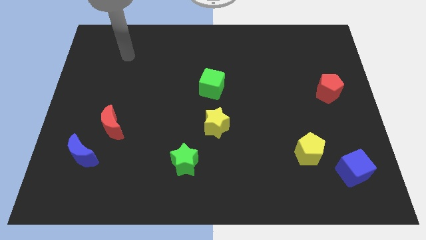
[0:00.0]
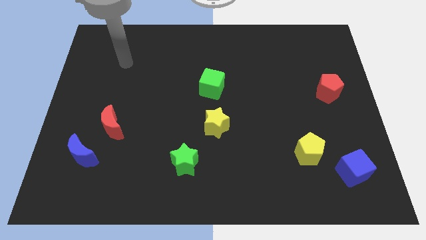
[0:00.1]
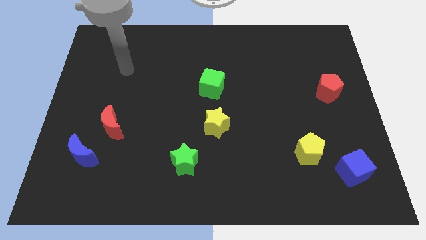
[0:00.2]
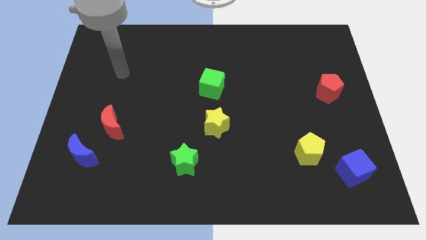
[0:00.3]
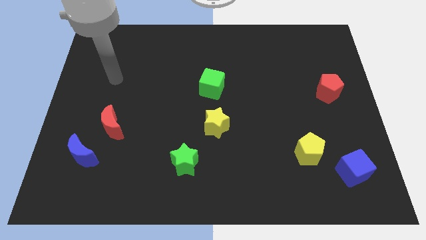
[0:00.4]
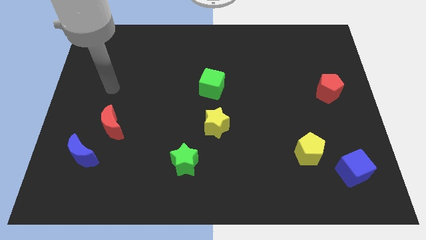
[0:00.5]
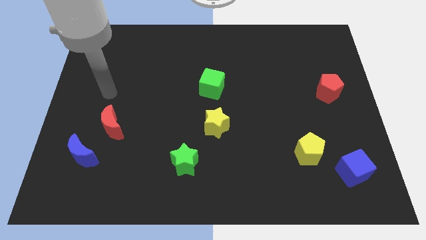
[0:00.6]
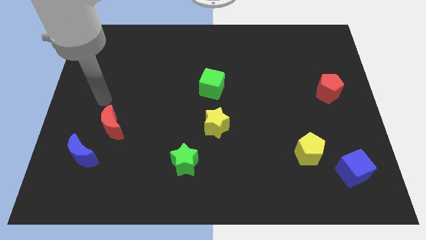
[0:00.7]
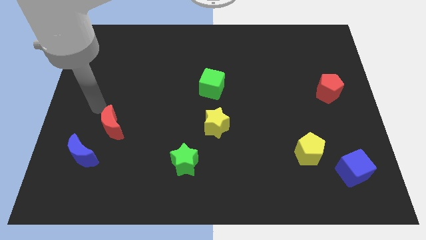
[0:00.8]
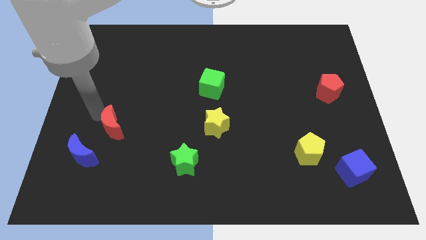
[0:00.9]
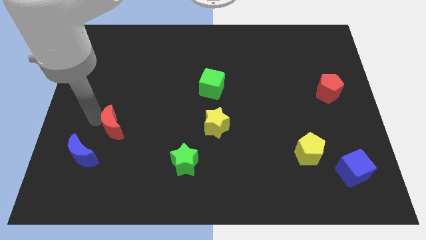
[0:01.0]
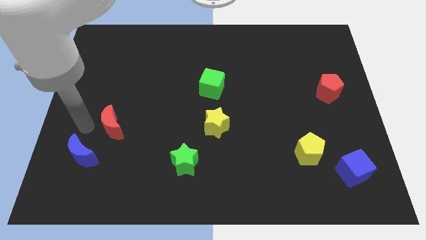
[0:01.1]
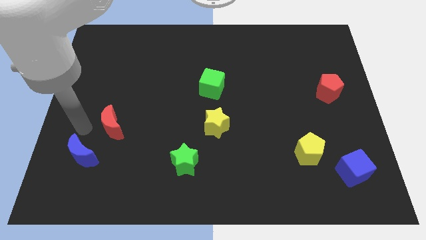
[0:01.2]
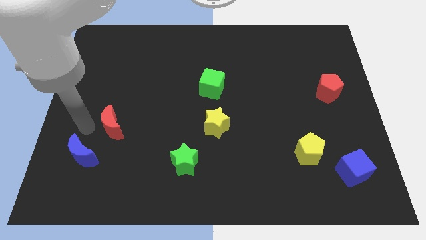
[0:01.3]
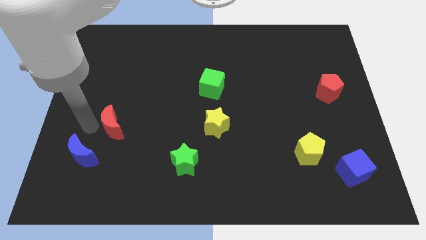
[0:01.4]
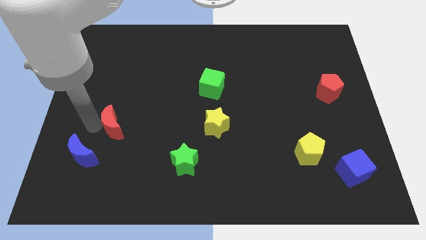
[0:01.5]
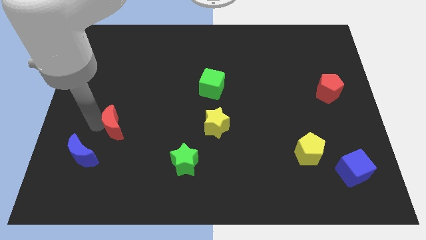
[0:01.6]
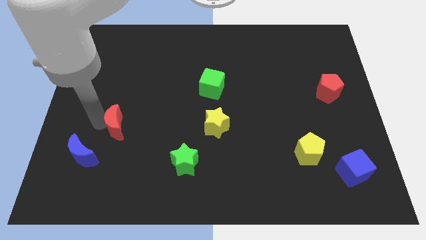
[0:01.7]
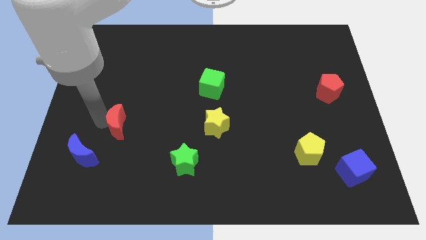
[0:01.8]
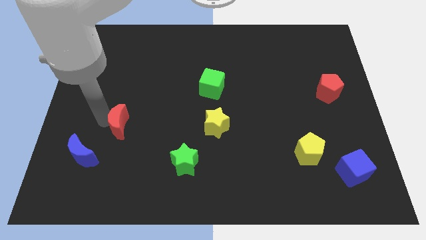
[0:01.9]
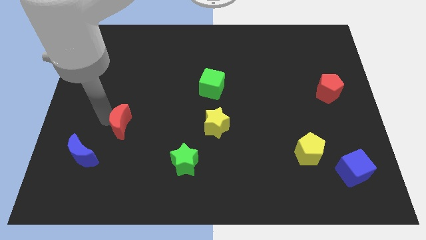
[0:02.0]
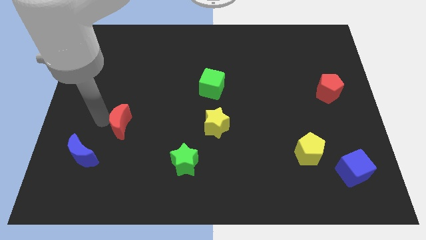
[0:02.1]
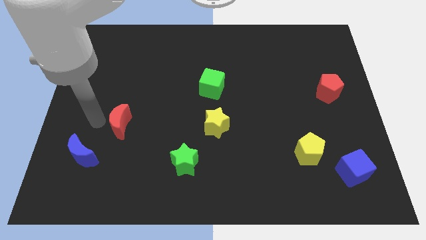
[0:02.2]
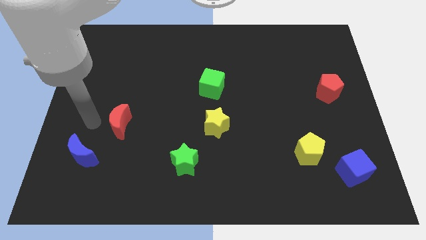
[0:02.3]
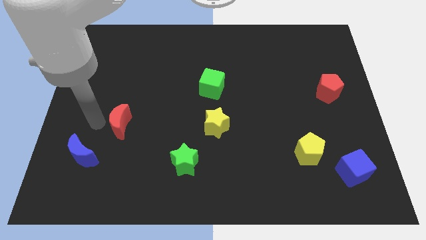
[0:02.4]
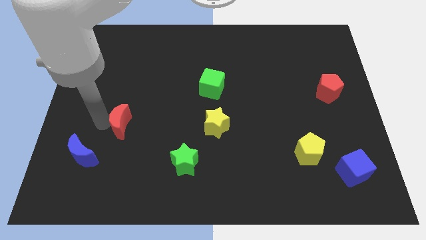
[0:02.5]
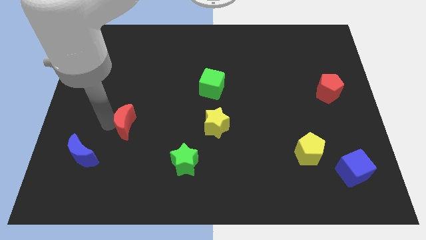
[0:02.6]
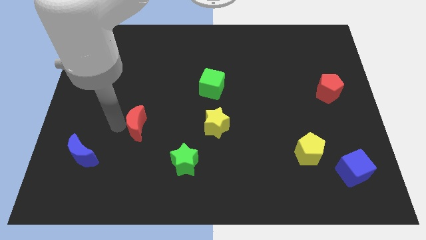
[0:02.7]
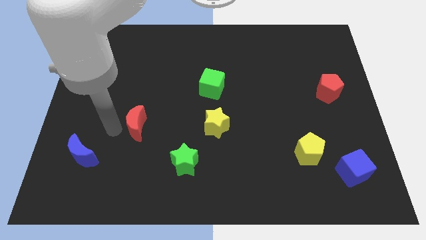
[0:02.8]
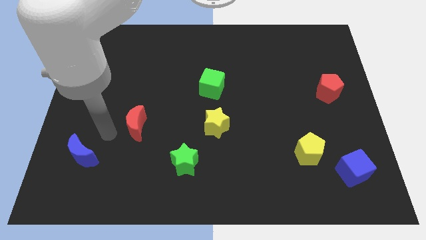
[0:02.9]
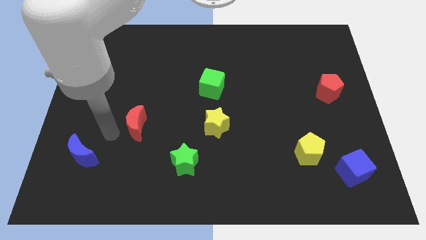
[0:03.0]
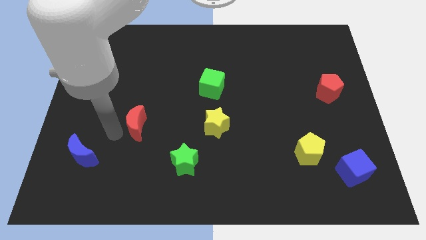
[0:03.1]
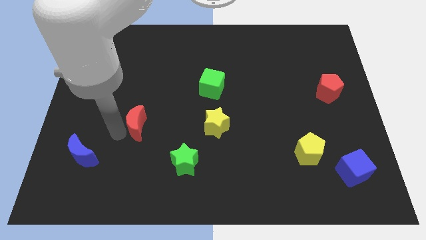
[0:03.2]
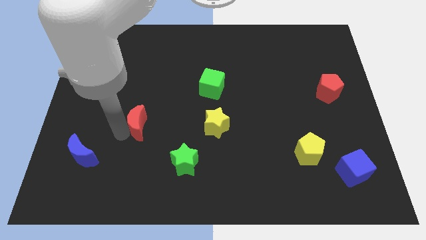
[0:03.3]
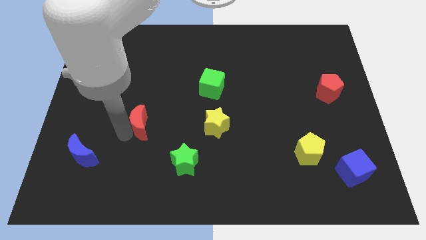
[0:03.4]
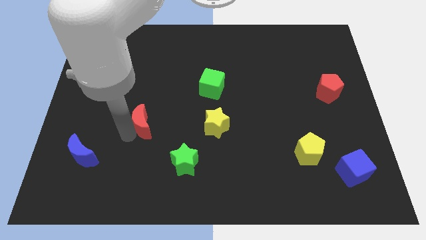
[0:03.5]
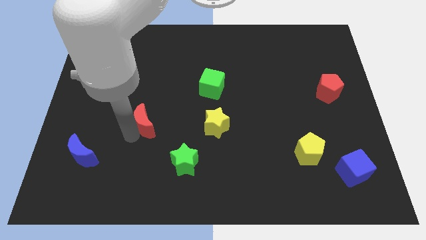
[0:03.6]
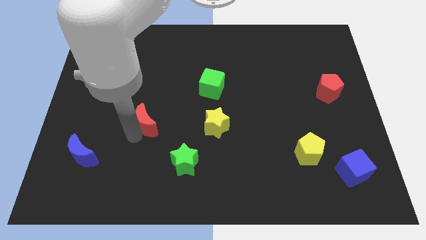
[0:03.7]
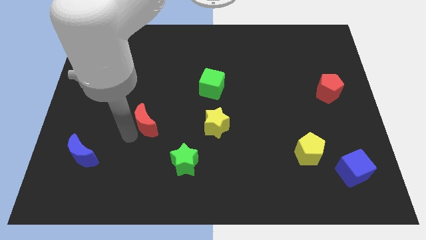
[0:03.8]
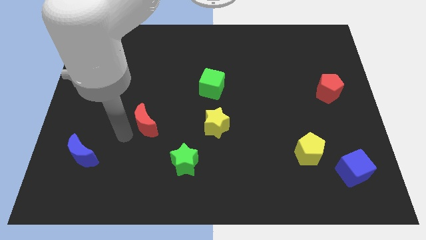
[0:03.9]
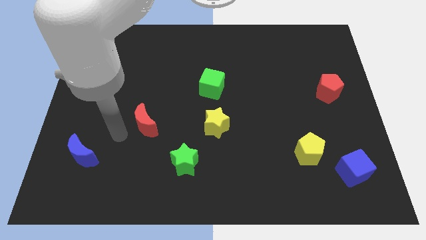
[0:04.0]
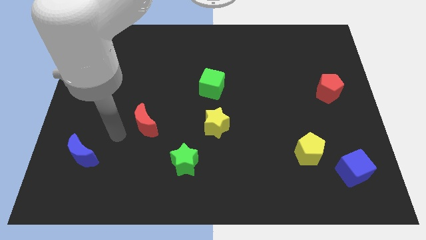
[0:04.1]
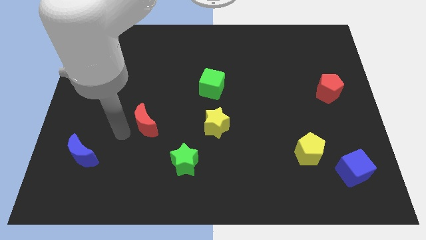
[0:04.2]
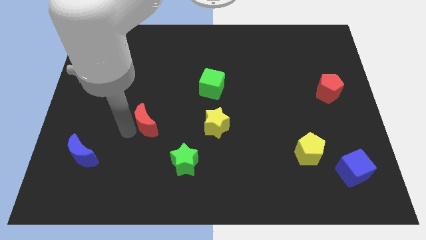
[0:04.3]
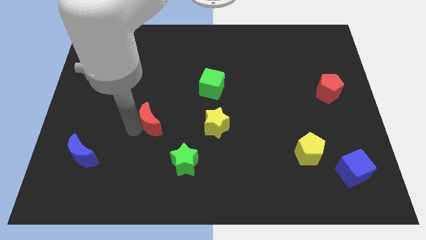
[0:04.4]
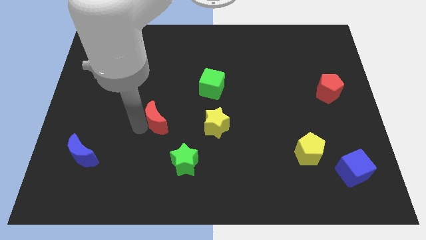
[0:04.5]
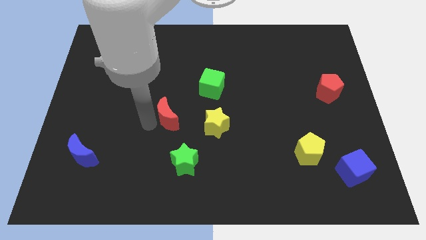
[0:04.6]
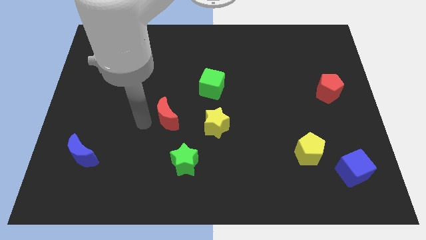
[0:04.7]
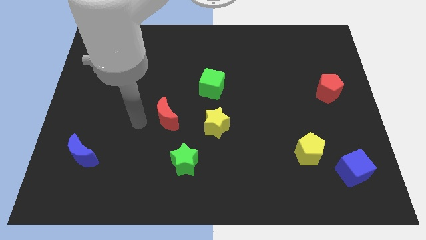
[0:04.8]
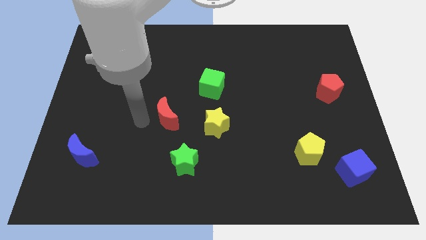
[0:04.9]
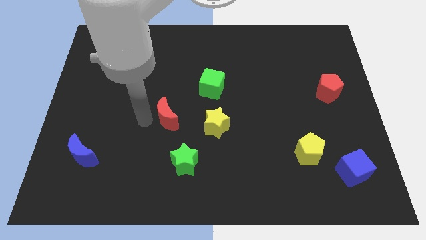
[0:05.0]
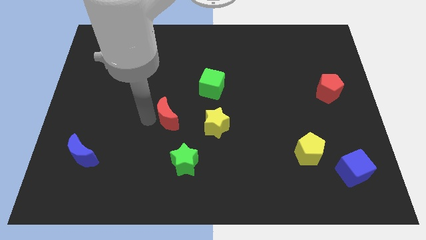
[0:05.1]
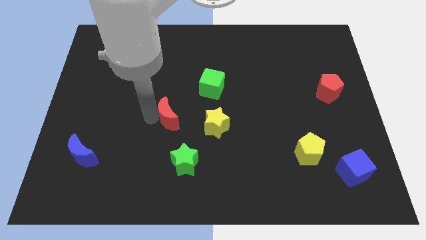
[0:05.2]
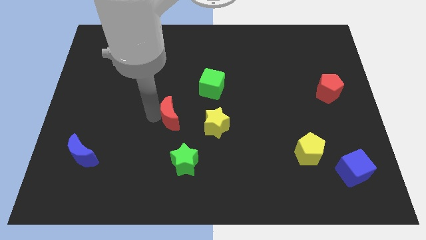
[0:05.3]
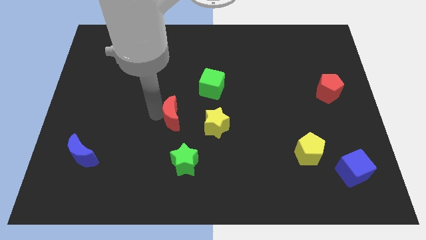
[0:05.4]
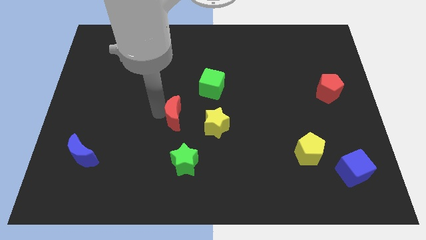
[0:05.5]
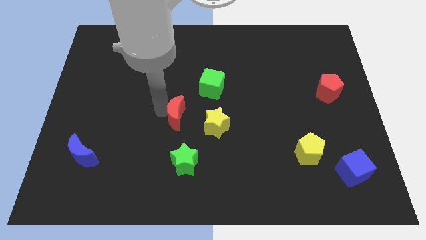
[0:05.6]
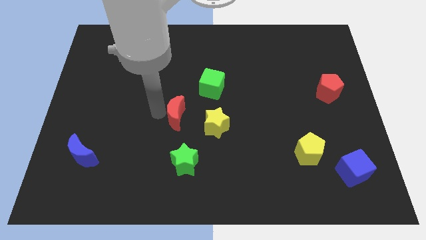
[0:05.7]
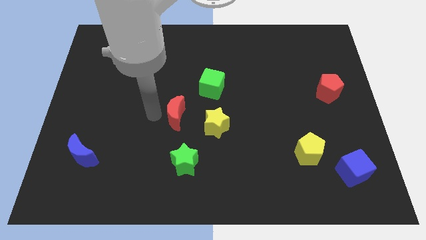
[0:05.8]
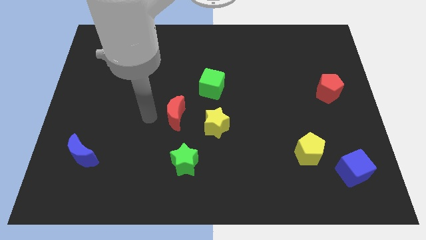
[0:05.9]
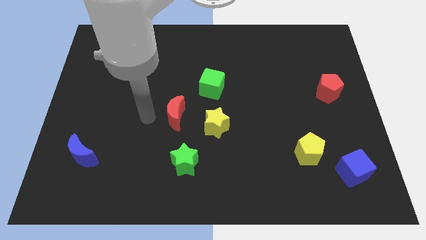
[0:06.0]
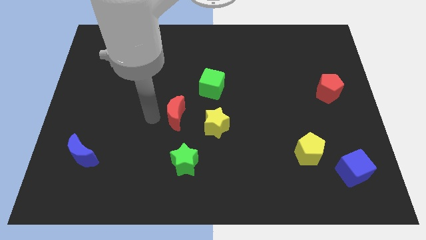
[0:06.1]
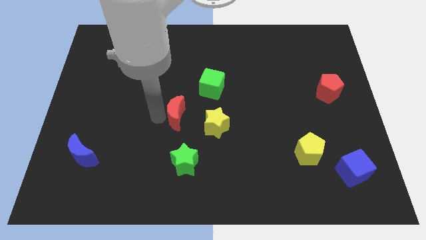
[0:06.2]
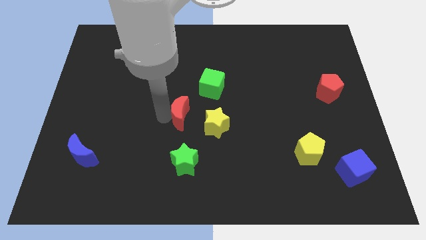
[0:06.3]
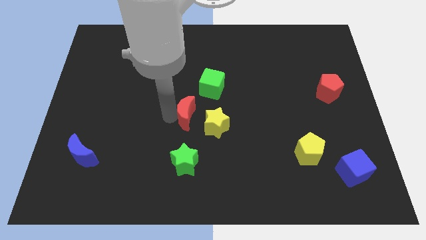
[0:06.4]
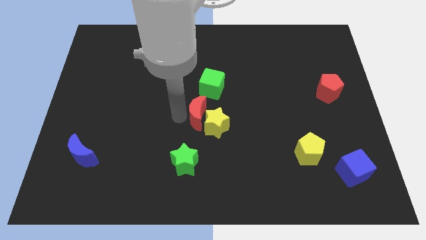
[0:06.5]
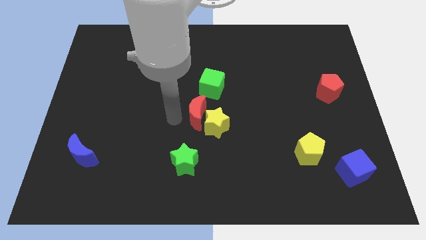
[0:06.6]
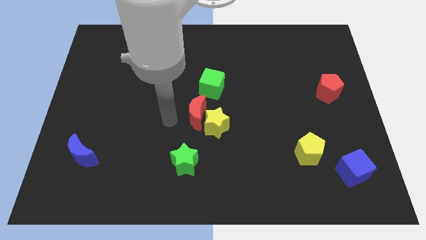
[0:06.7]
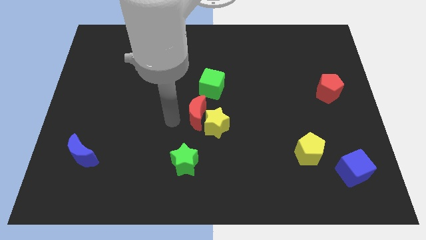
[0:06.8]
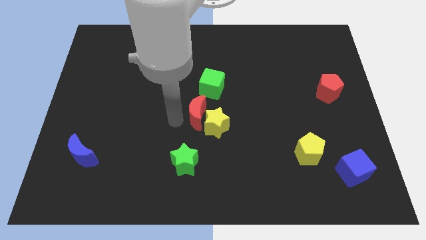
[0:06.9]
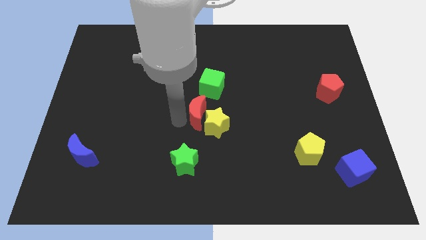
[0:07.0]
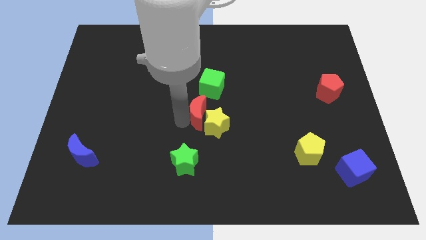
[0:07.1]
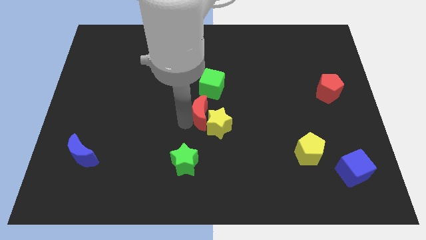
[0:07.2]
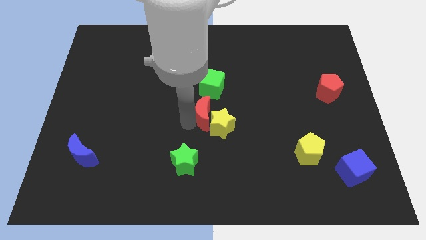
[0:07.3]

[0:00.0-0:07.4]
move the red moon to the right

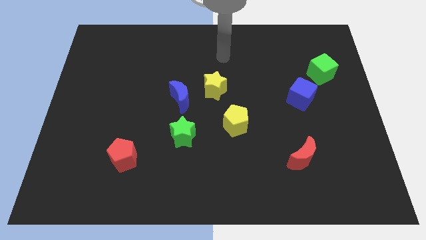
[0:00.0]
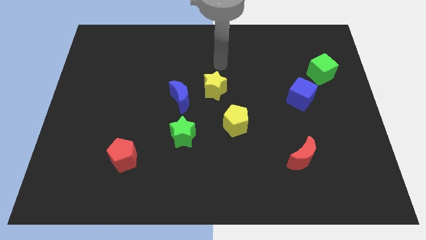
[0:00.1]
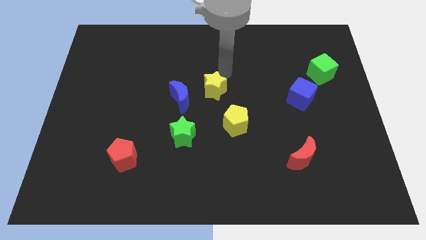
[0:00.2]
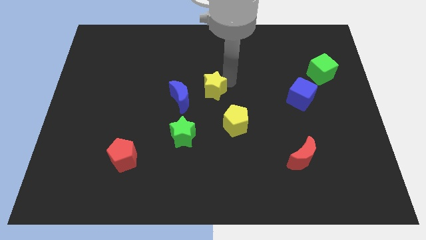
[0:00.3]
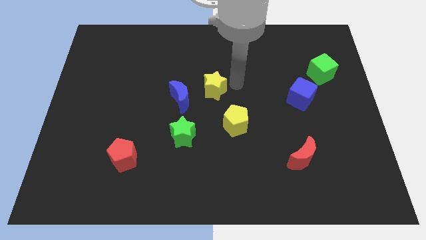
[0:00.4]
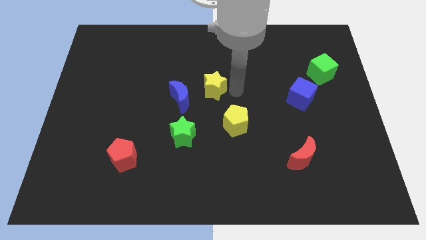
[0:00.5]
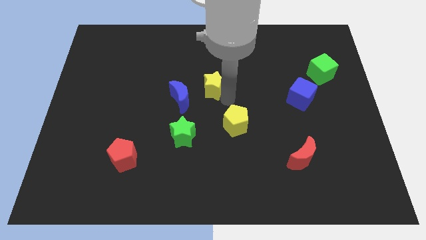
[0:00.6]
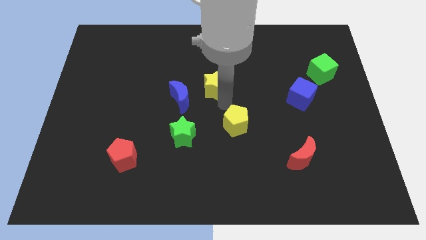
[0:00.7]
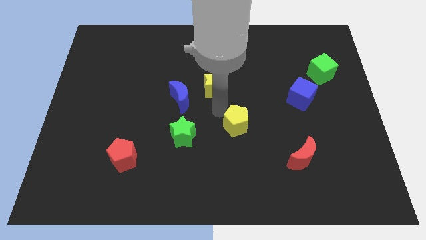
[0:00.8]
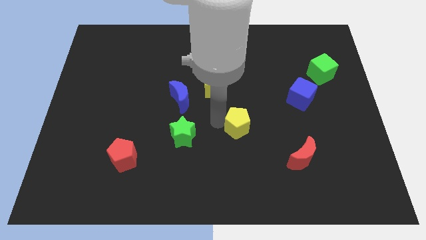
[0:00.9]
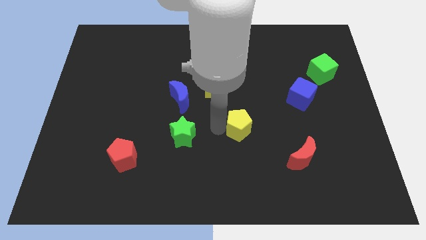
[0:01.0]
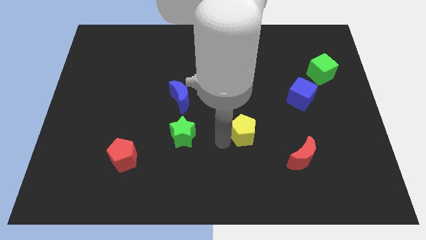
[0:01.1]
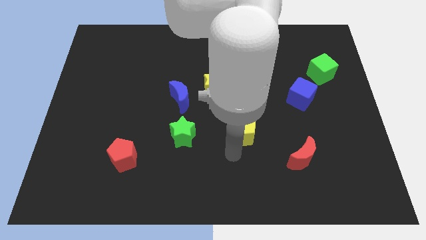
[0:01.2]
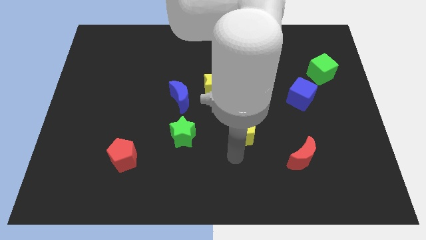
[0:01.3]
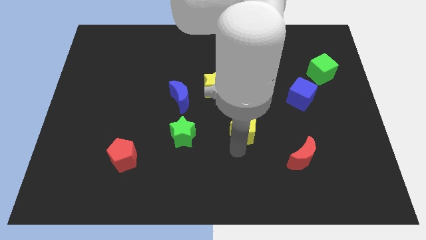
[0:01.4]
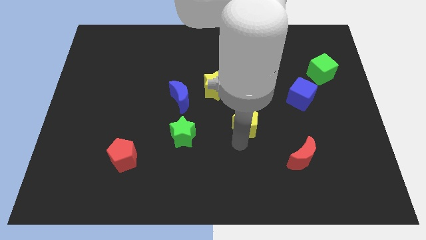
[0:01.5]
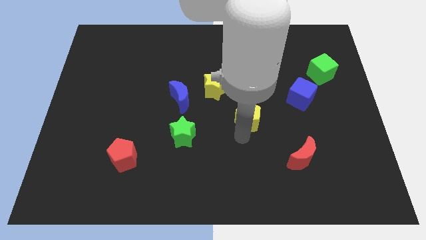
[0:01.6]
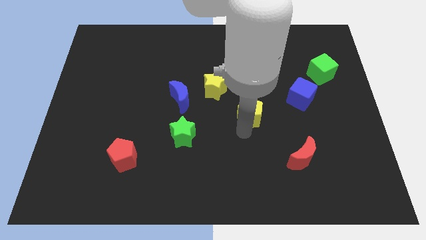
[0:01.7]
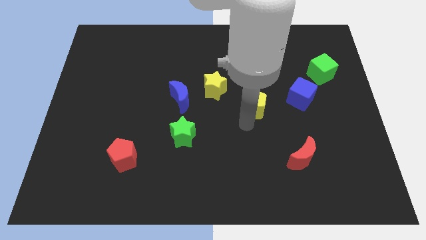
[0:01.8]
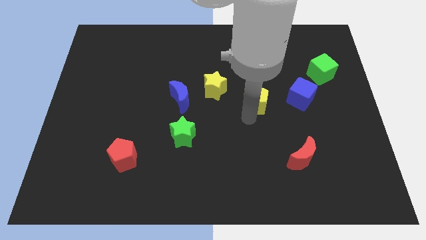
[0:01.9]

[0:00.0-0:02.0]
push the yellow pentagon a bit up and to the right
